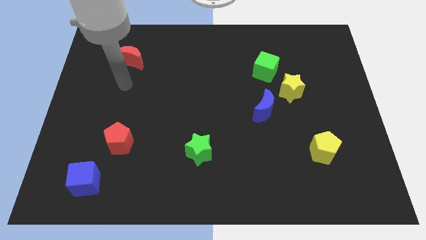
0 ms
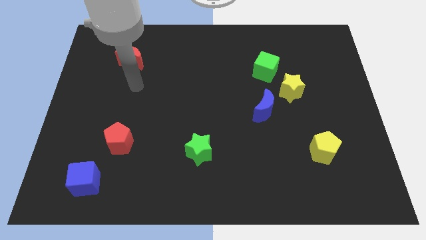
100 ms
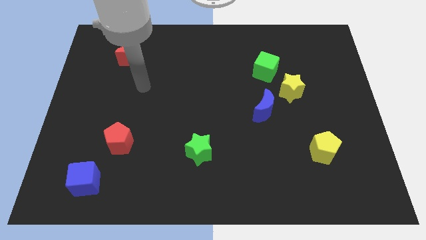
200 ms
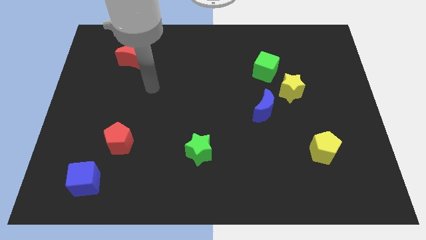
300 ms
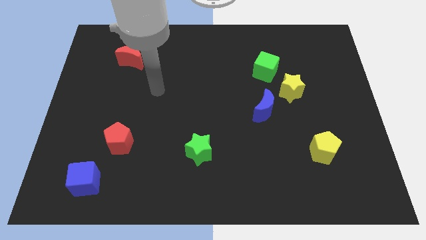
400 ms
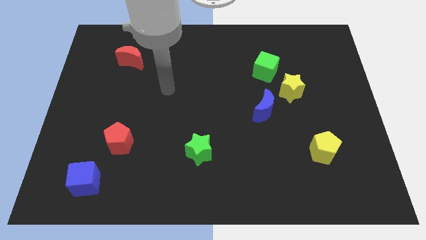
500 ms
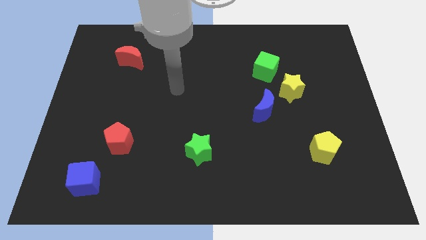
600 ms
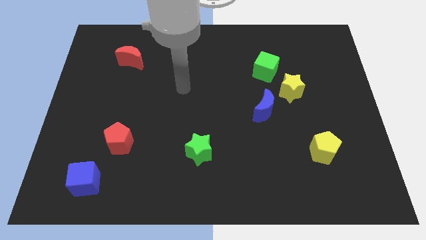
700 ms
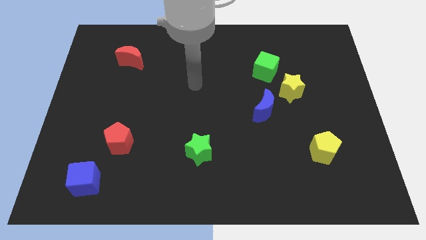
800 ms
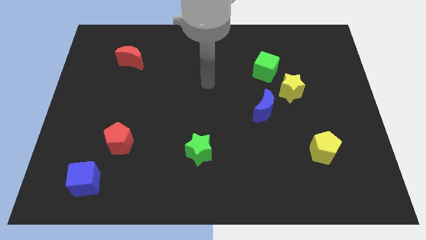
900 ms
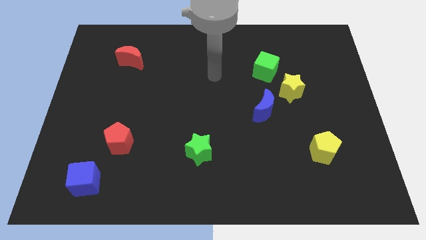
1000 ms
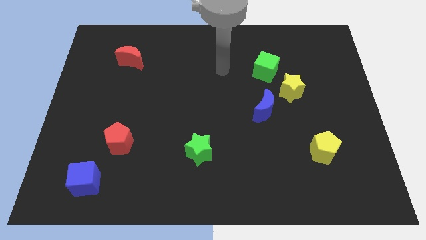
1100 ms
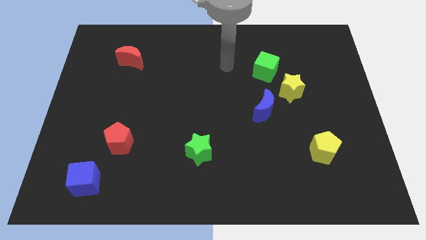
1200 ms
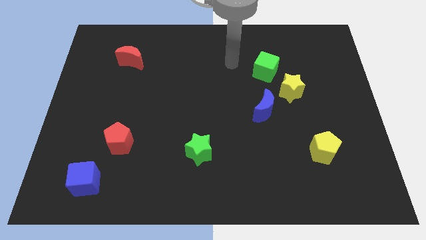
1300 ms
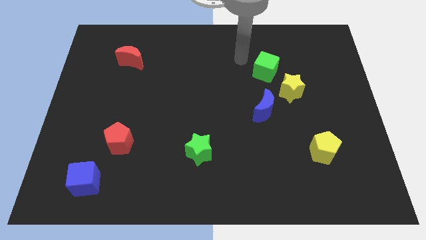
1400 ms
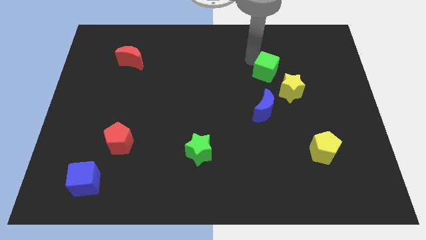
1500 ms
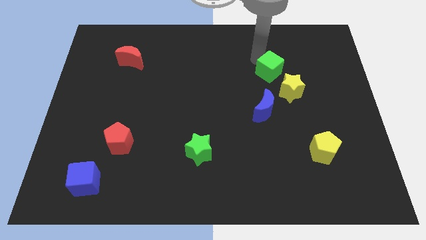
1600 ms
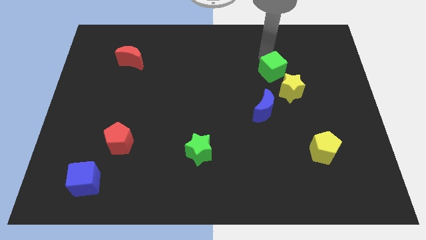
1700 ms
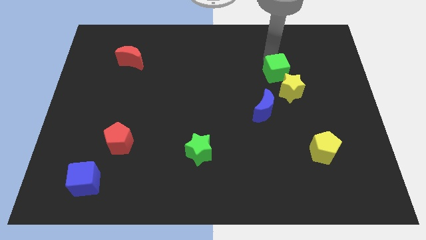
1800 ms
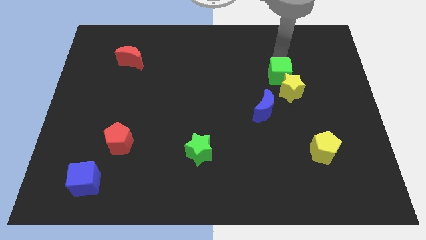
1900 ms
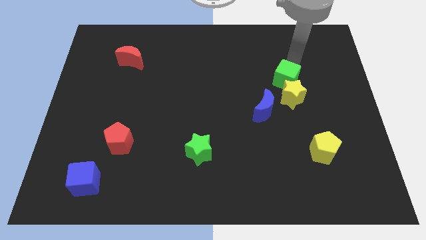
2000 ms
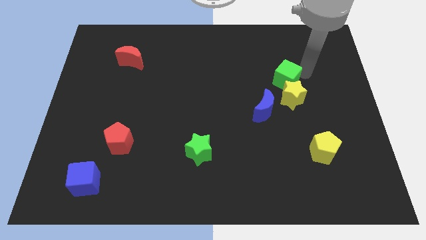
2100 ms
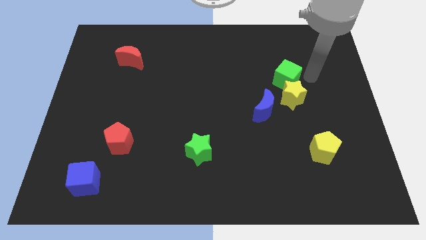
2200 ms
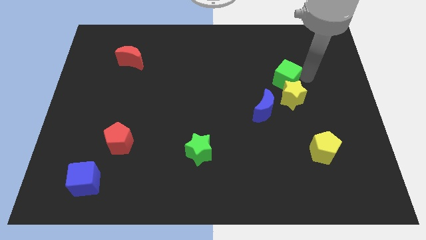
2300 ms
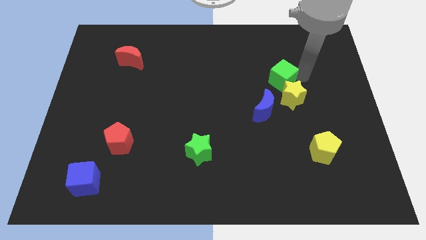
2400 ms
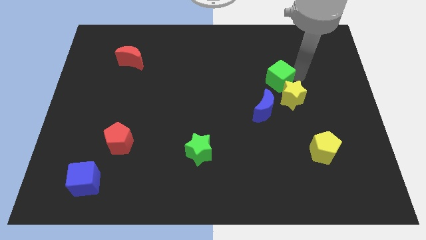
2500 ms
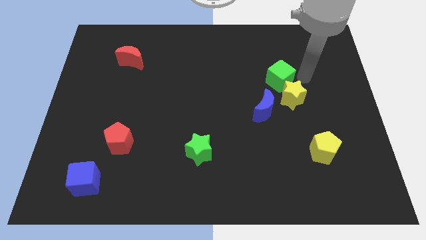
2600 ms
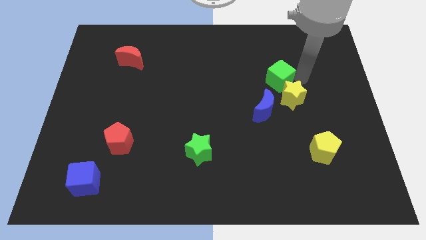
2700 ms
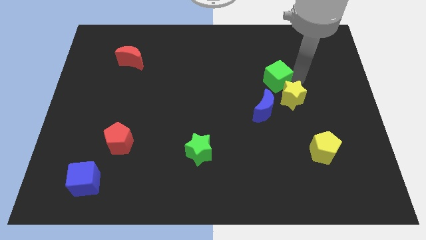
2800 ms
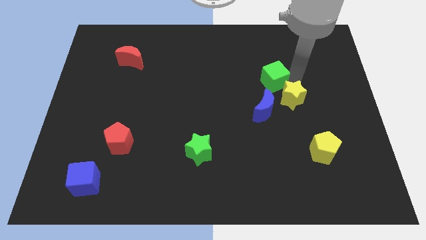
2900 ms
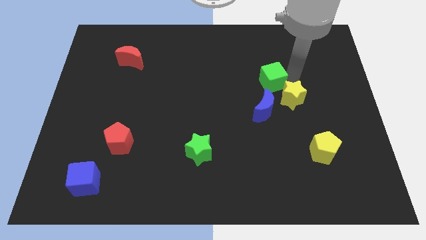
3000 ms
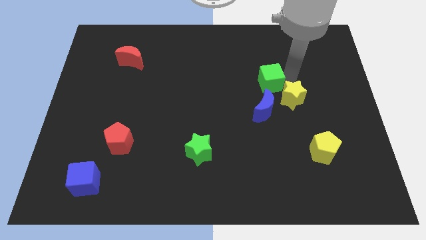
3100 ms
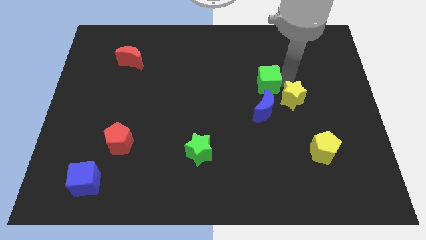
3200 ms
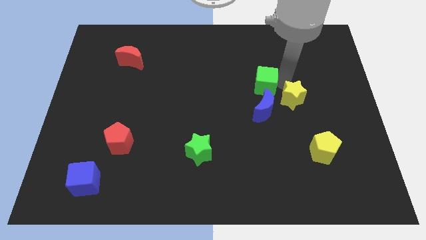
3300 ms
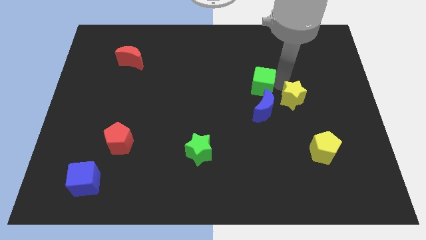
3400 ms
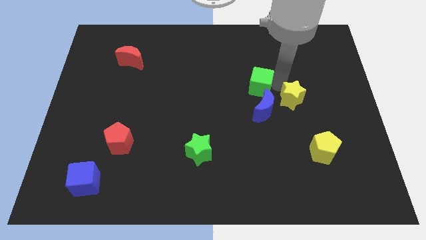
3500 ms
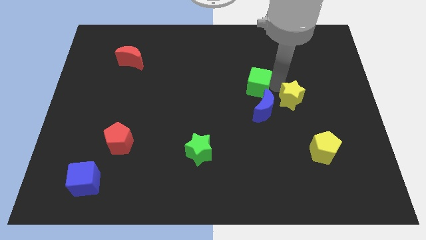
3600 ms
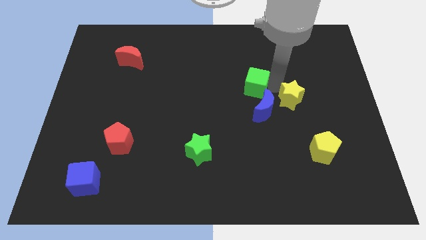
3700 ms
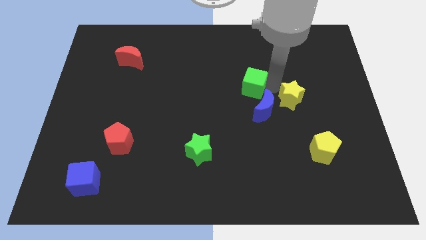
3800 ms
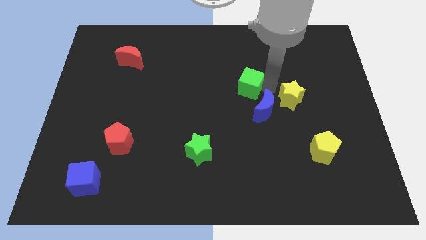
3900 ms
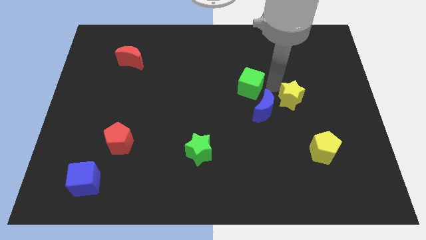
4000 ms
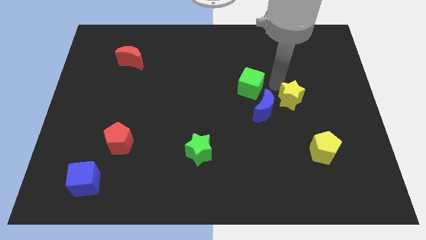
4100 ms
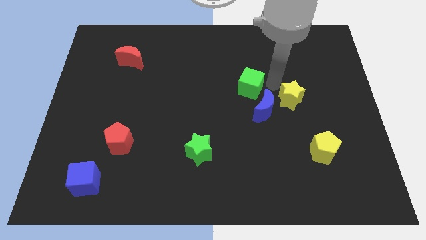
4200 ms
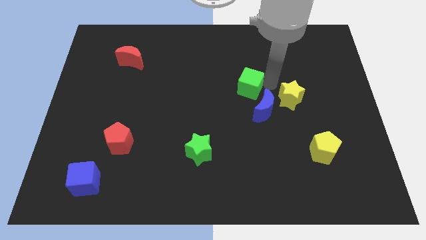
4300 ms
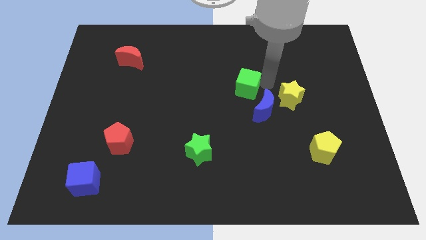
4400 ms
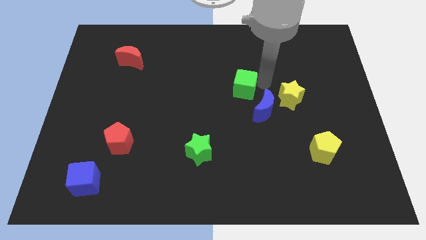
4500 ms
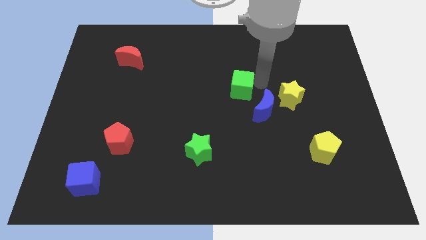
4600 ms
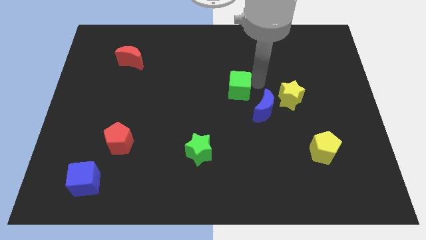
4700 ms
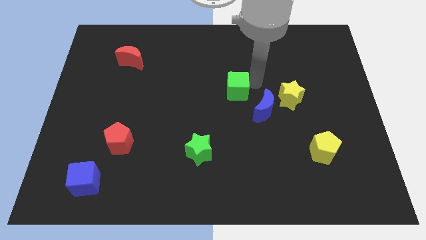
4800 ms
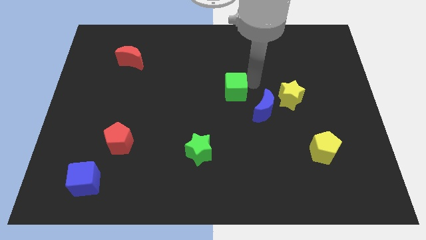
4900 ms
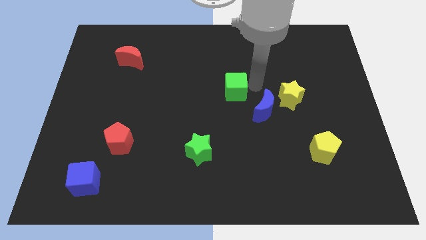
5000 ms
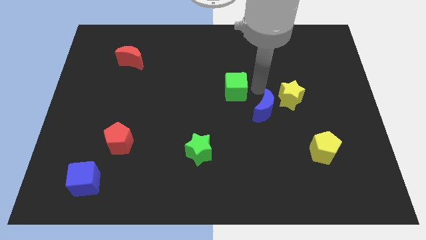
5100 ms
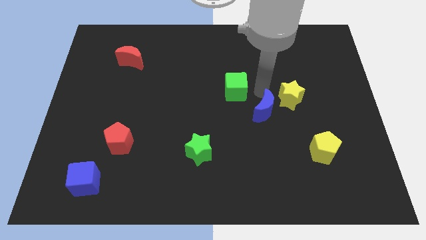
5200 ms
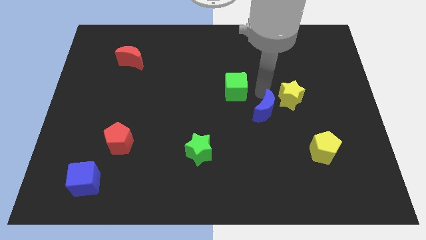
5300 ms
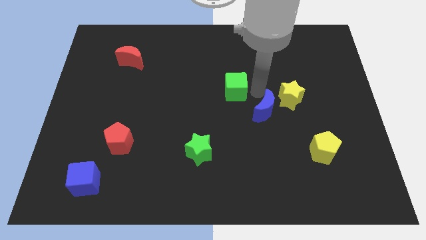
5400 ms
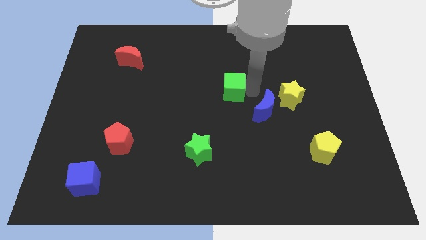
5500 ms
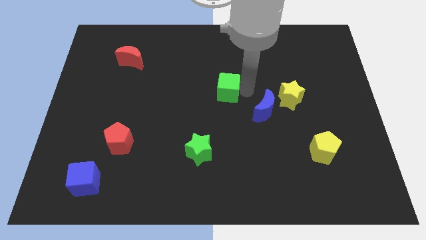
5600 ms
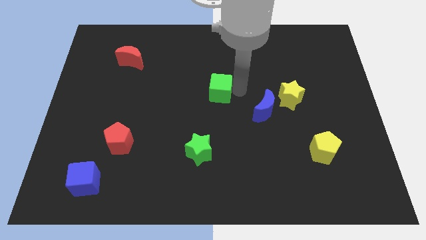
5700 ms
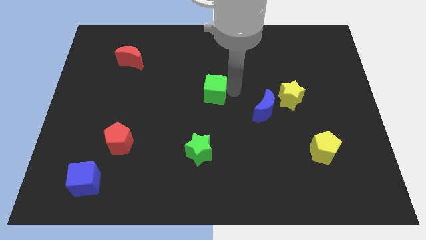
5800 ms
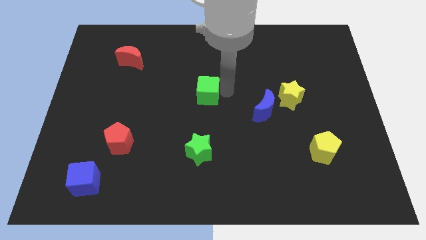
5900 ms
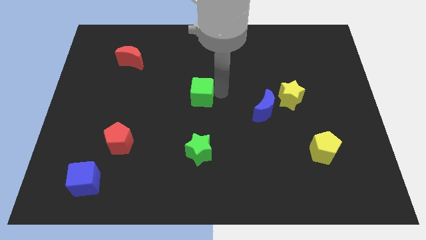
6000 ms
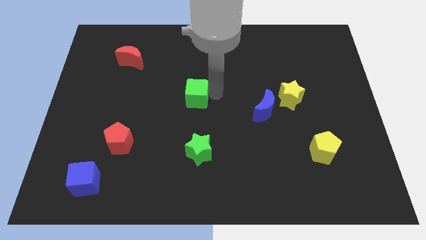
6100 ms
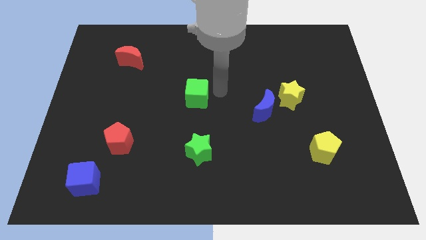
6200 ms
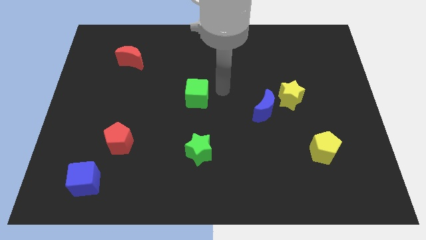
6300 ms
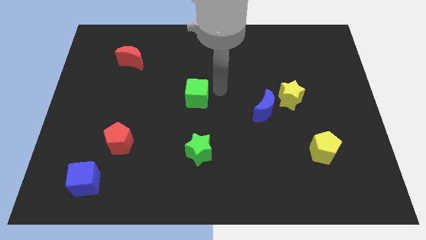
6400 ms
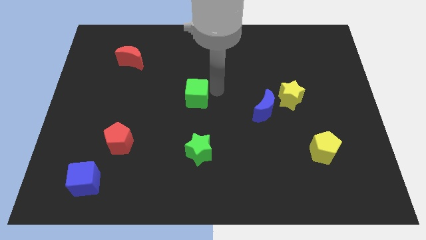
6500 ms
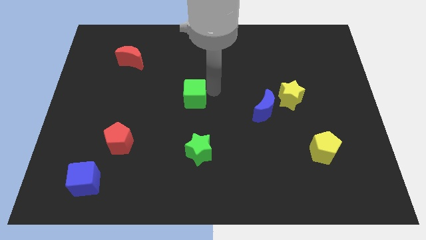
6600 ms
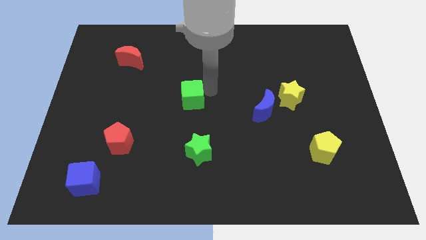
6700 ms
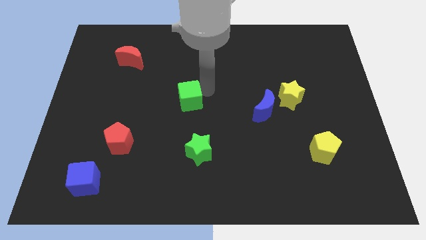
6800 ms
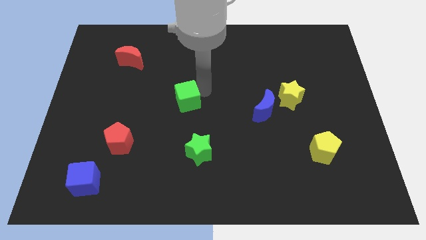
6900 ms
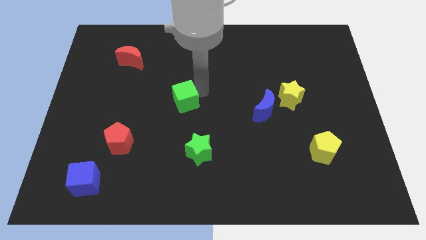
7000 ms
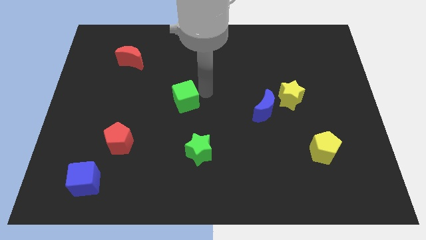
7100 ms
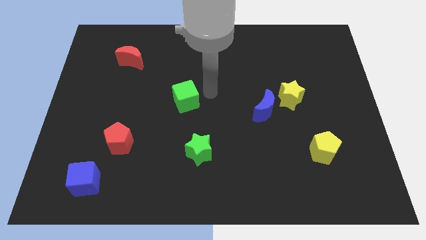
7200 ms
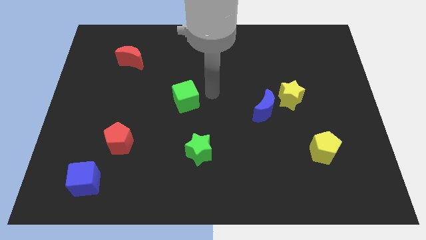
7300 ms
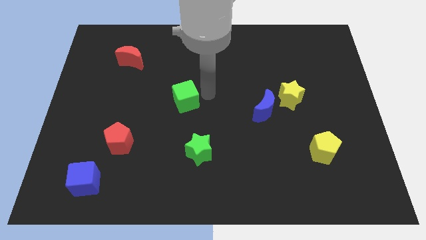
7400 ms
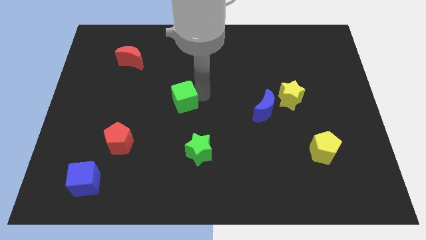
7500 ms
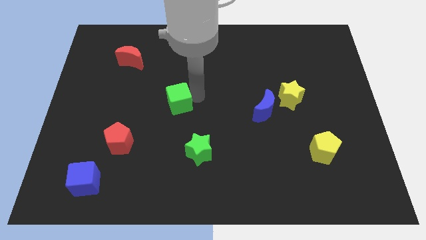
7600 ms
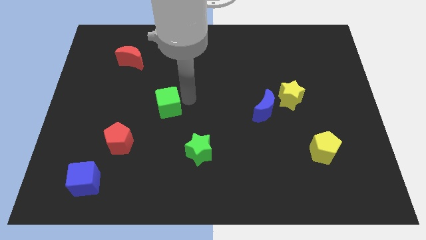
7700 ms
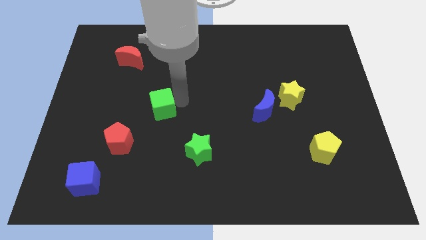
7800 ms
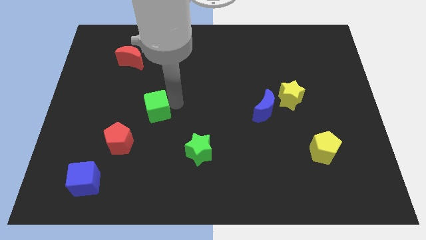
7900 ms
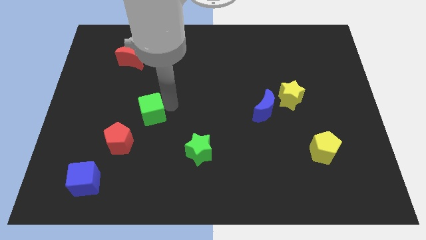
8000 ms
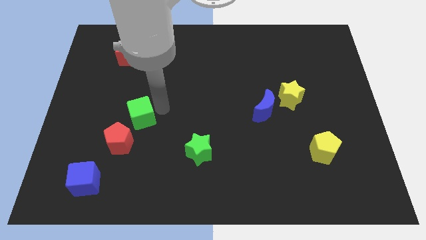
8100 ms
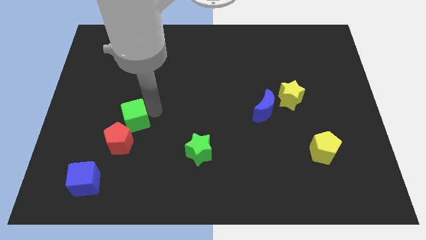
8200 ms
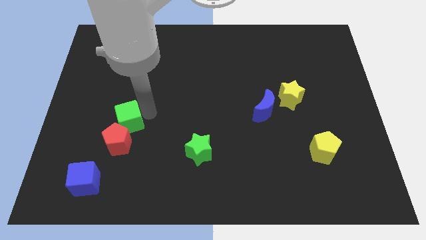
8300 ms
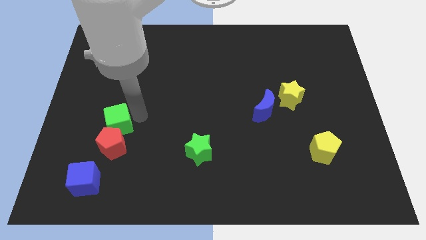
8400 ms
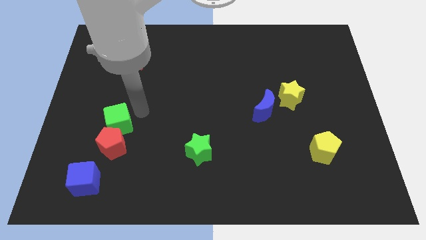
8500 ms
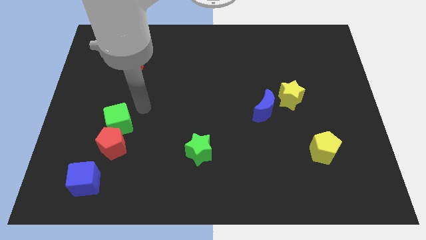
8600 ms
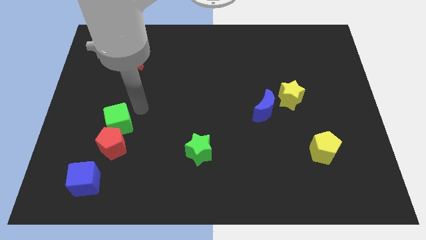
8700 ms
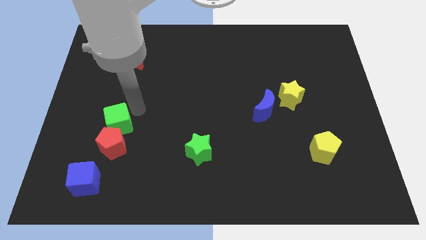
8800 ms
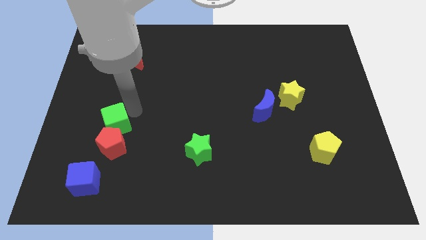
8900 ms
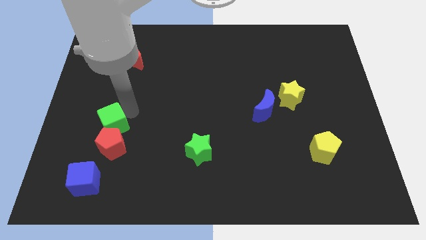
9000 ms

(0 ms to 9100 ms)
put the green cube to the top of the blue cube
